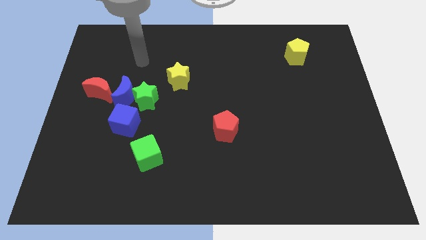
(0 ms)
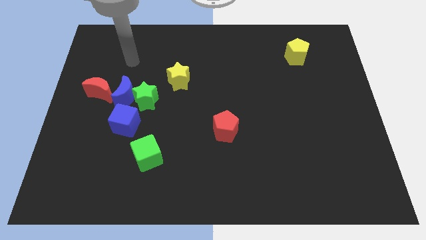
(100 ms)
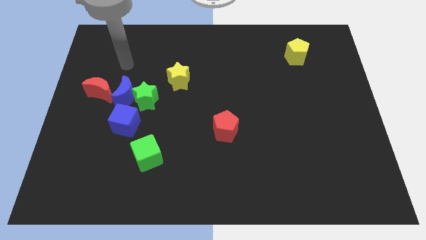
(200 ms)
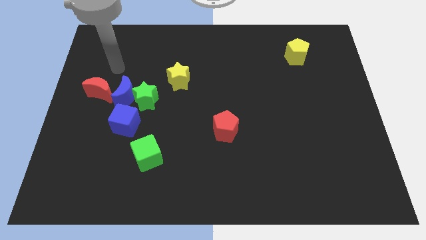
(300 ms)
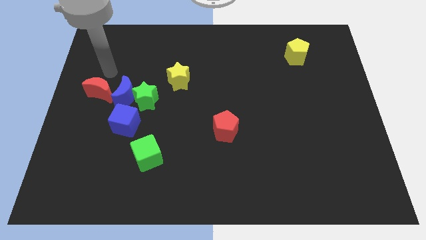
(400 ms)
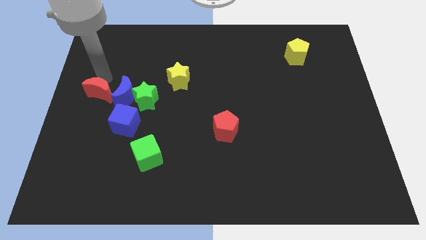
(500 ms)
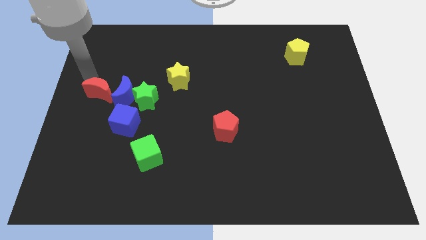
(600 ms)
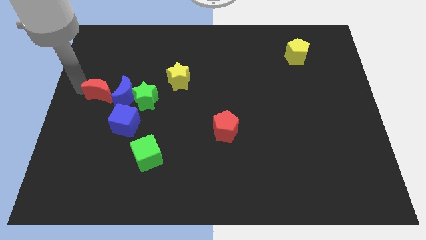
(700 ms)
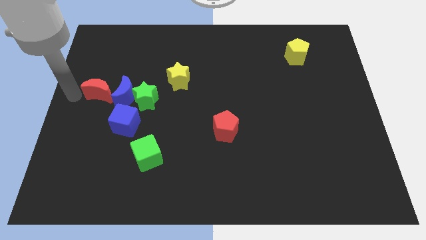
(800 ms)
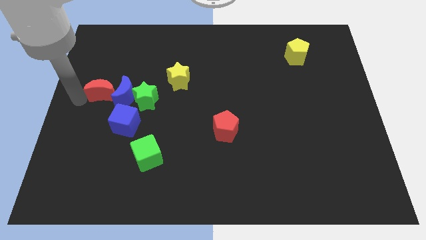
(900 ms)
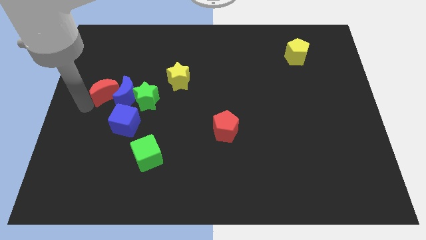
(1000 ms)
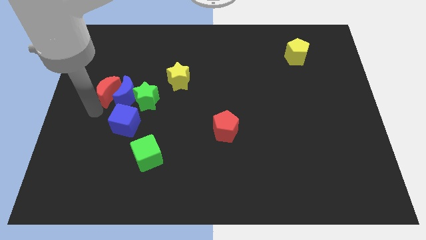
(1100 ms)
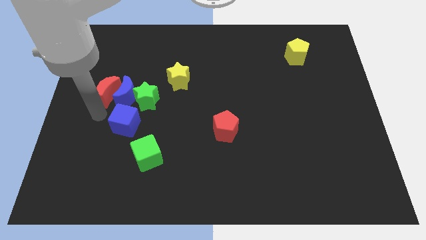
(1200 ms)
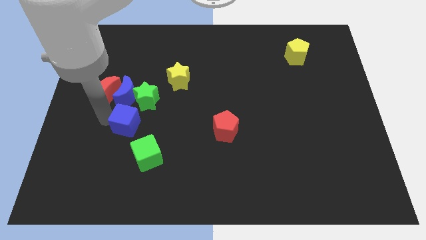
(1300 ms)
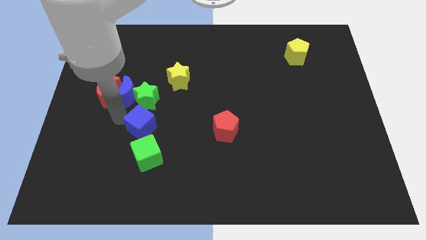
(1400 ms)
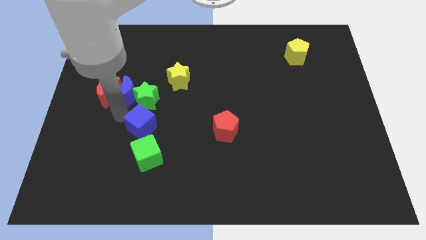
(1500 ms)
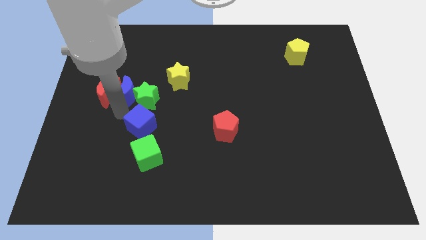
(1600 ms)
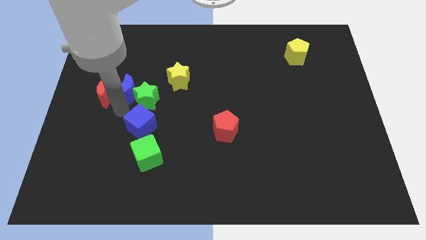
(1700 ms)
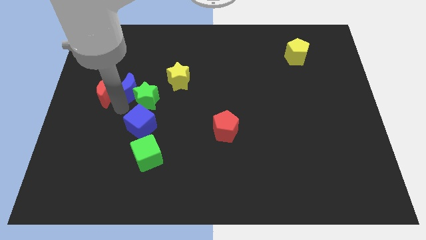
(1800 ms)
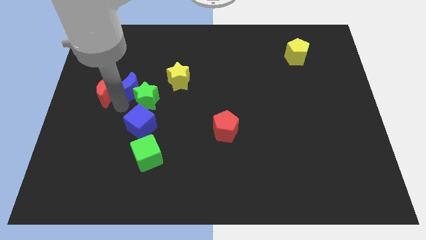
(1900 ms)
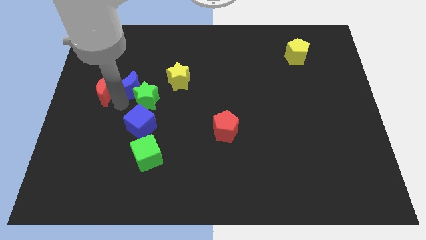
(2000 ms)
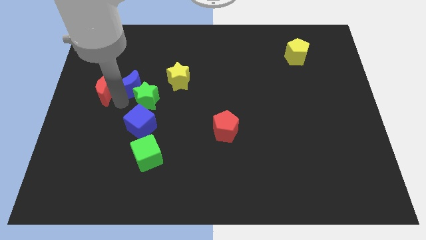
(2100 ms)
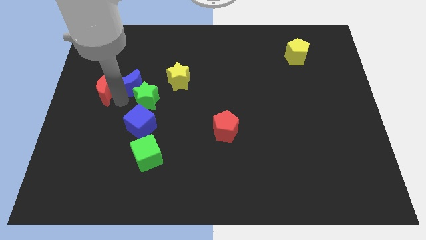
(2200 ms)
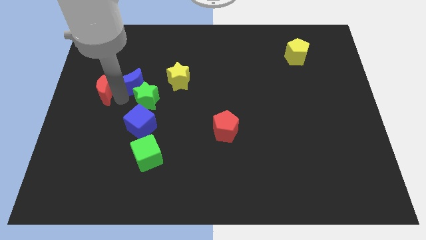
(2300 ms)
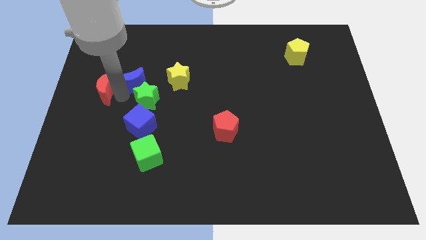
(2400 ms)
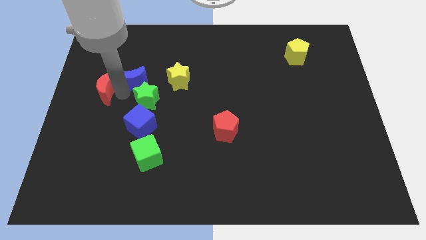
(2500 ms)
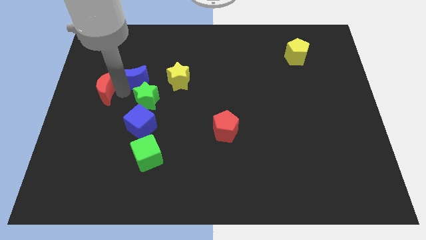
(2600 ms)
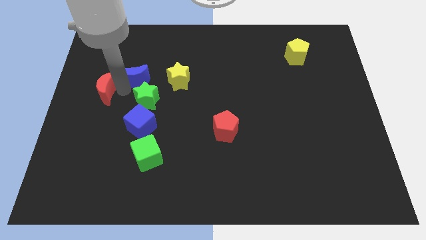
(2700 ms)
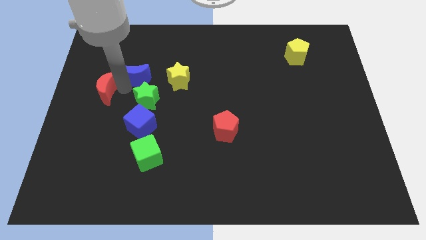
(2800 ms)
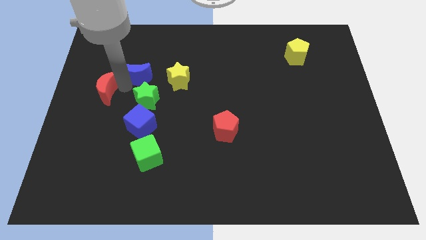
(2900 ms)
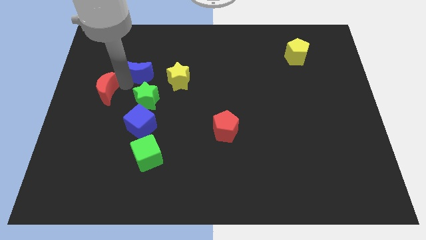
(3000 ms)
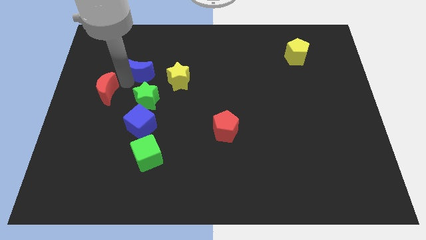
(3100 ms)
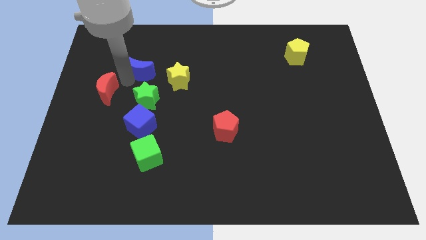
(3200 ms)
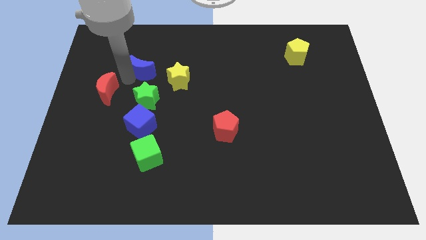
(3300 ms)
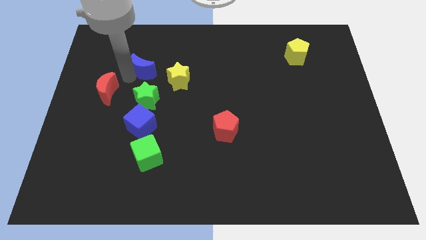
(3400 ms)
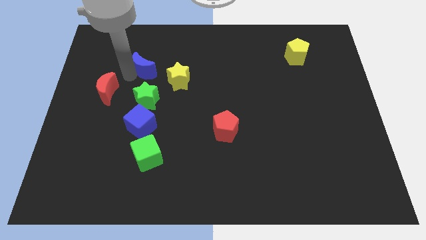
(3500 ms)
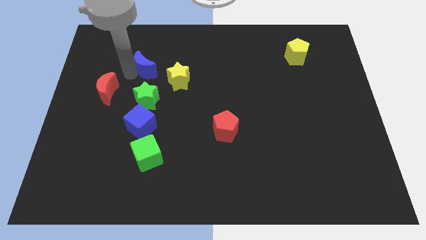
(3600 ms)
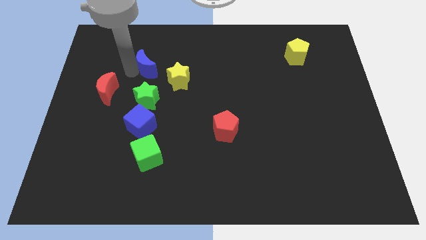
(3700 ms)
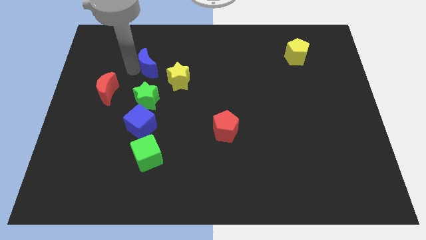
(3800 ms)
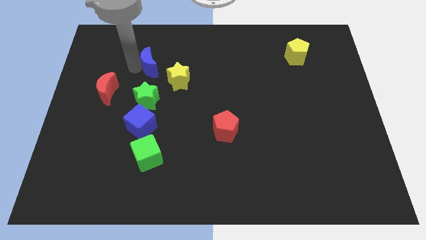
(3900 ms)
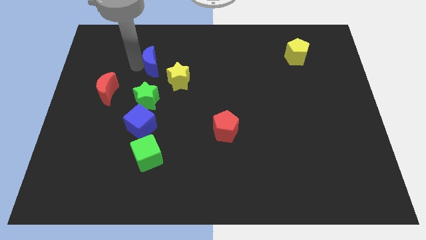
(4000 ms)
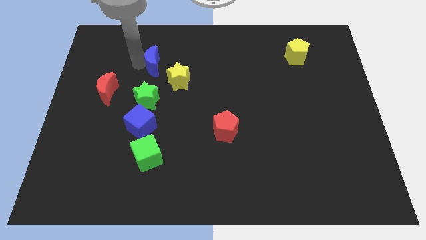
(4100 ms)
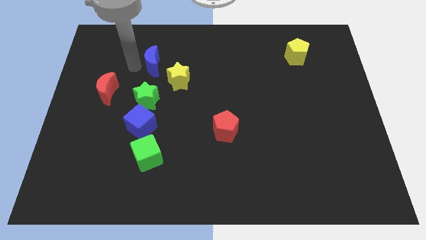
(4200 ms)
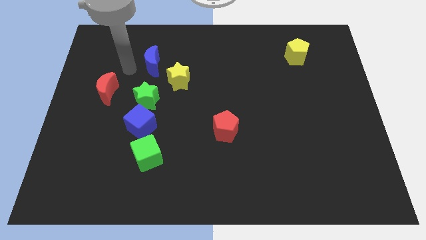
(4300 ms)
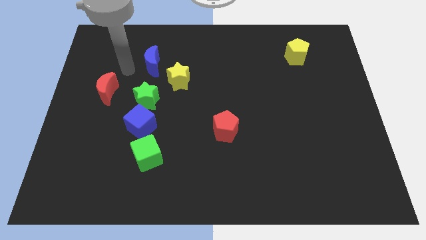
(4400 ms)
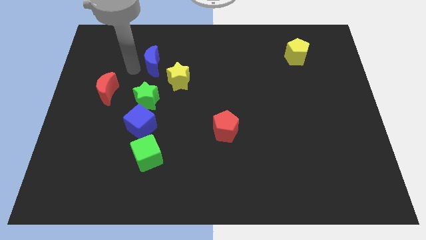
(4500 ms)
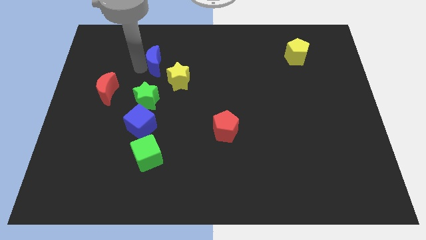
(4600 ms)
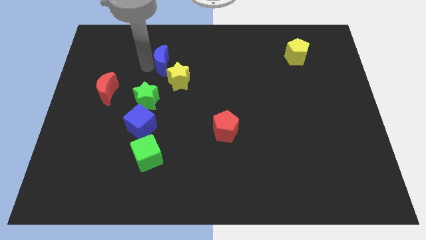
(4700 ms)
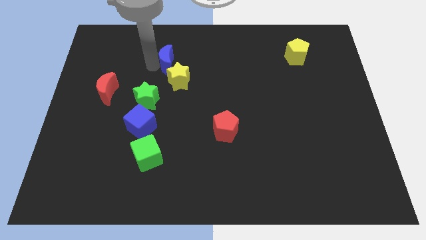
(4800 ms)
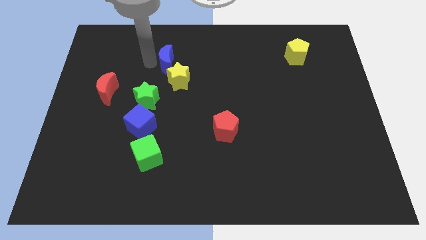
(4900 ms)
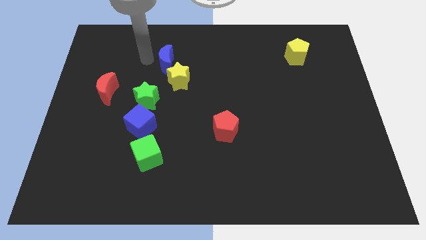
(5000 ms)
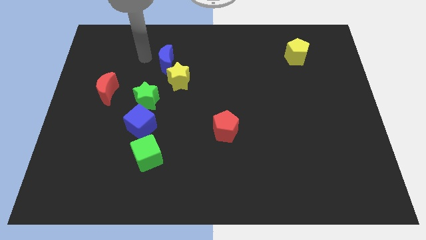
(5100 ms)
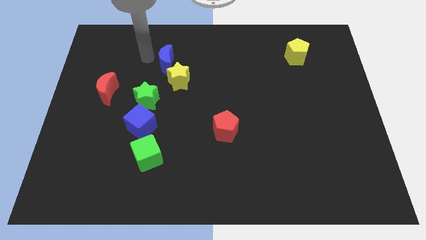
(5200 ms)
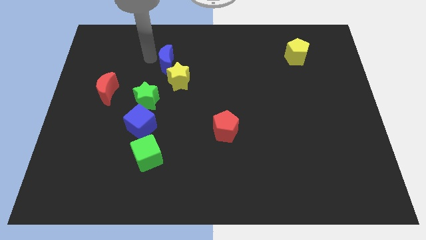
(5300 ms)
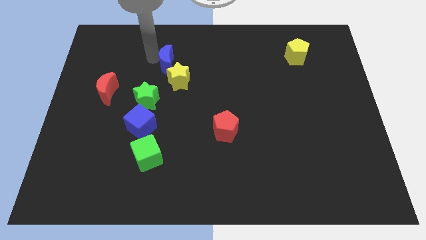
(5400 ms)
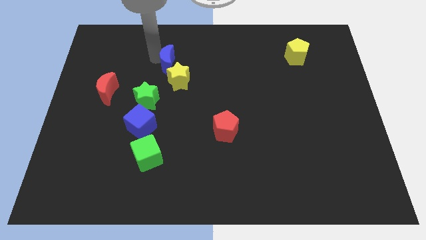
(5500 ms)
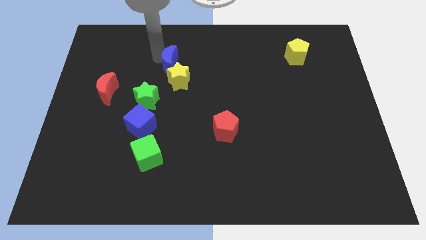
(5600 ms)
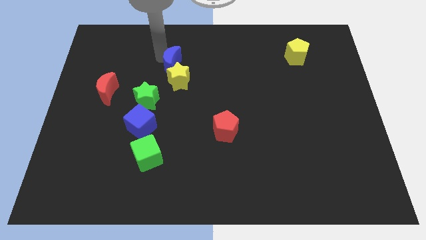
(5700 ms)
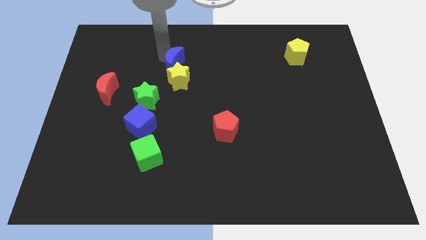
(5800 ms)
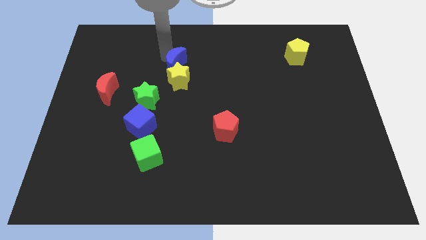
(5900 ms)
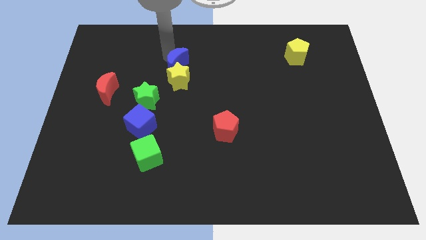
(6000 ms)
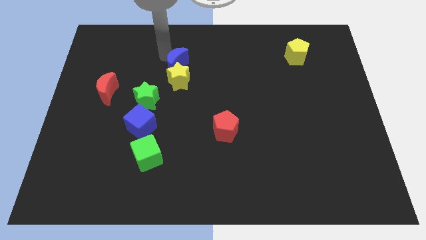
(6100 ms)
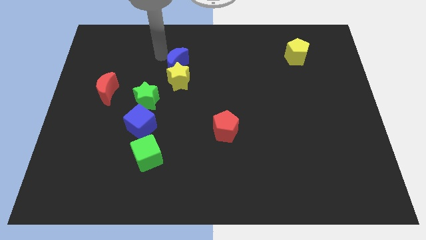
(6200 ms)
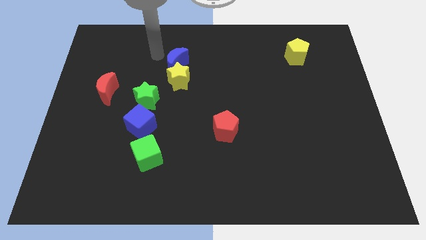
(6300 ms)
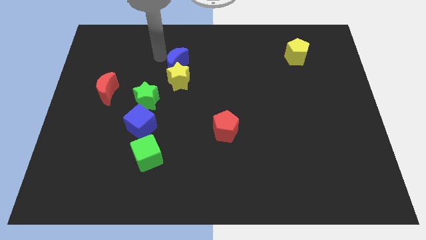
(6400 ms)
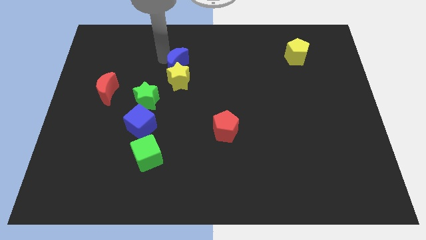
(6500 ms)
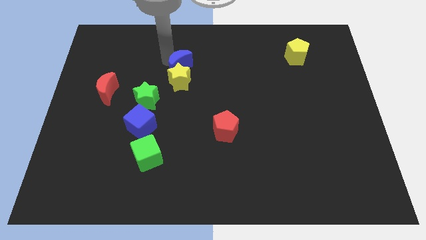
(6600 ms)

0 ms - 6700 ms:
push the blue moon slightly to the right

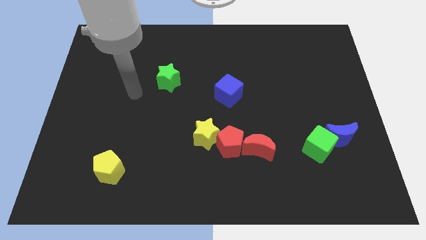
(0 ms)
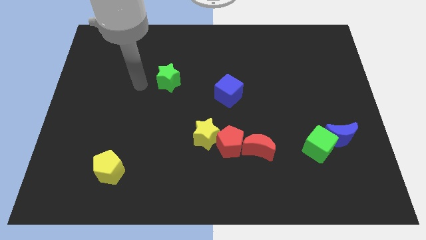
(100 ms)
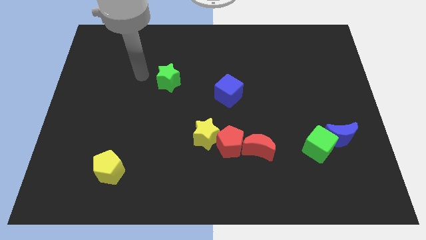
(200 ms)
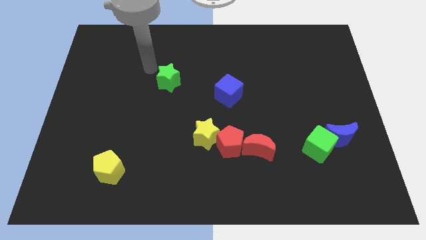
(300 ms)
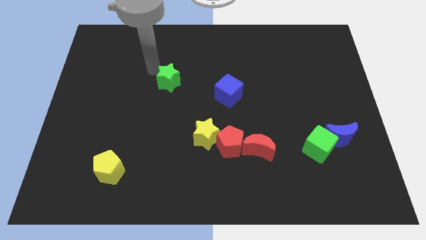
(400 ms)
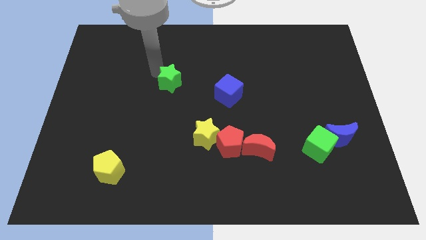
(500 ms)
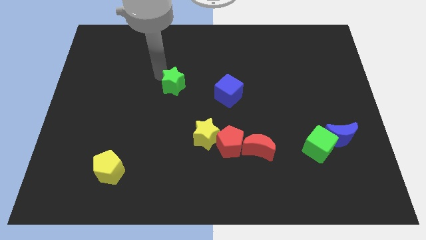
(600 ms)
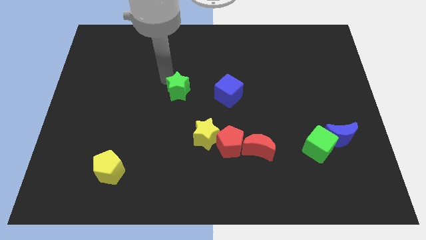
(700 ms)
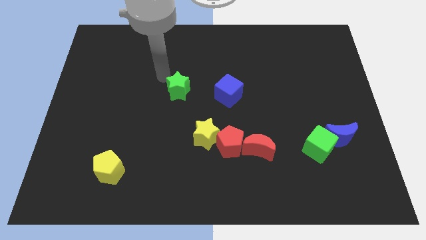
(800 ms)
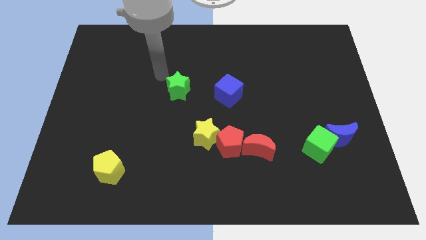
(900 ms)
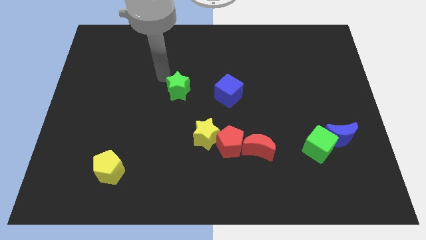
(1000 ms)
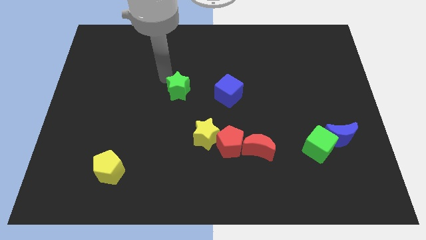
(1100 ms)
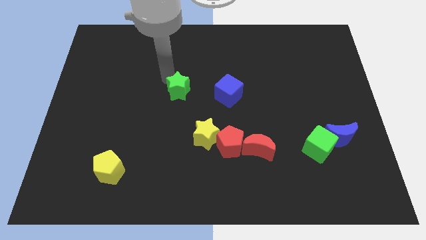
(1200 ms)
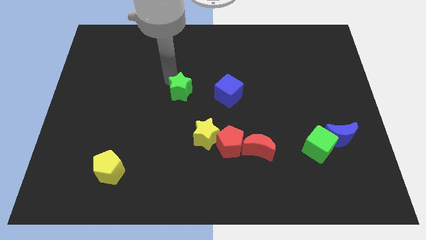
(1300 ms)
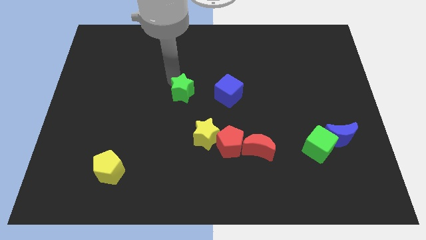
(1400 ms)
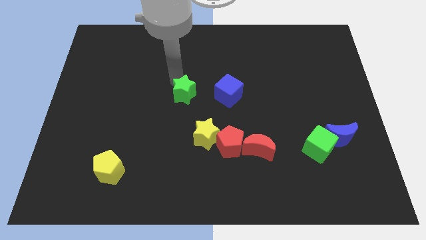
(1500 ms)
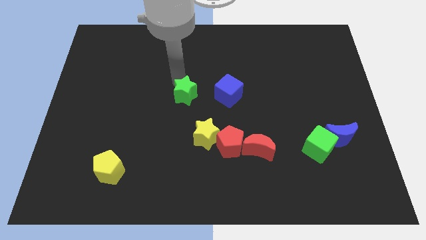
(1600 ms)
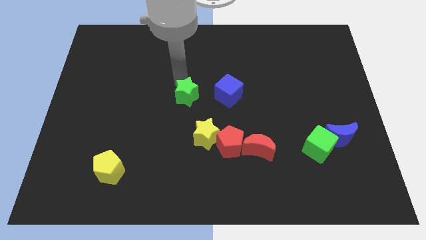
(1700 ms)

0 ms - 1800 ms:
slightly push the green star downwards and to the right
